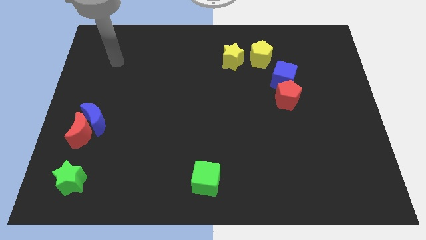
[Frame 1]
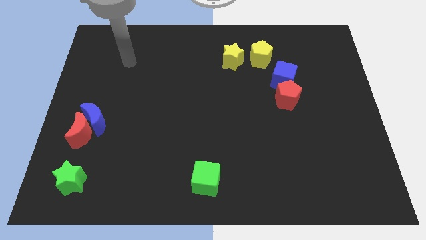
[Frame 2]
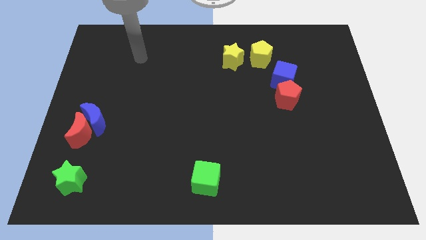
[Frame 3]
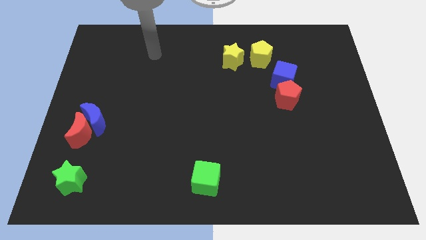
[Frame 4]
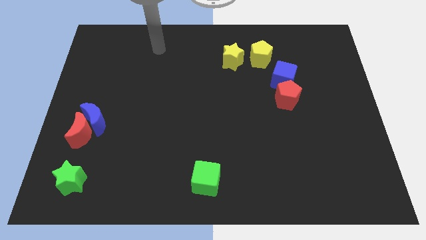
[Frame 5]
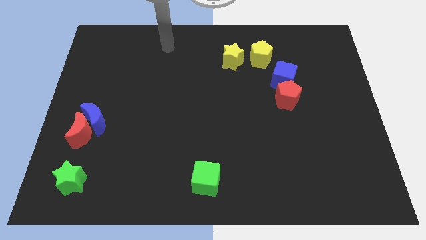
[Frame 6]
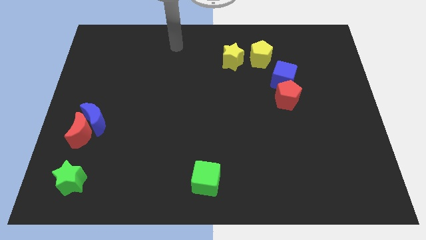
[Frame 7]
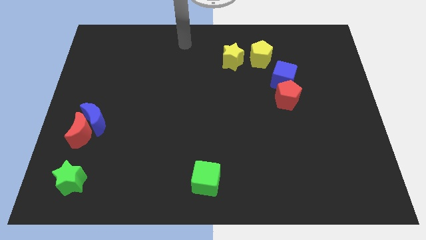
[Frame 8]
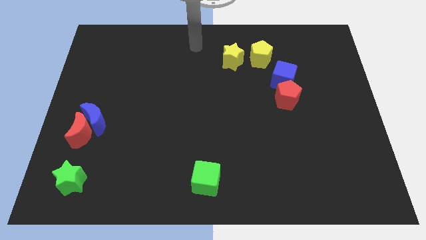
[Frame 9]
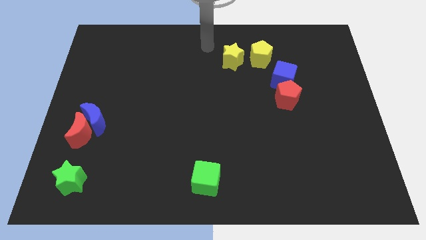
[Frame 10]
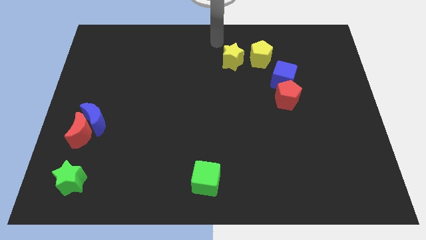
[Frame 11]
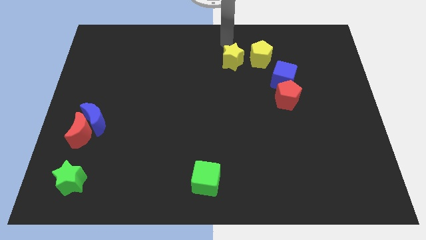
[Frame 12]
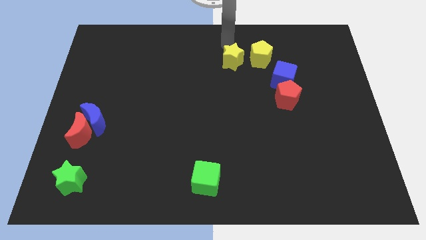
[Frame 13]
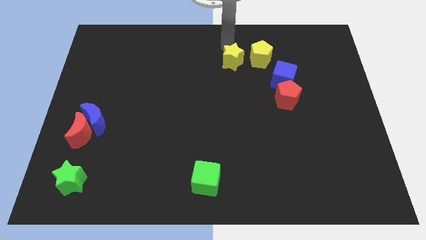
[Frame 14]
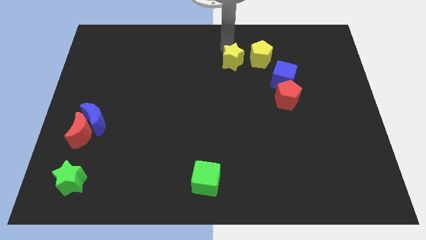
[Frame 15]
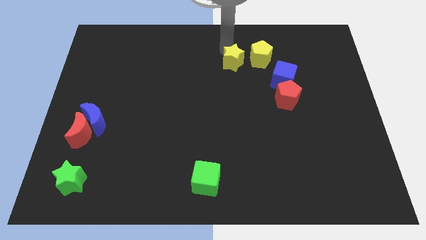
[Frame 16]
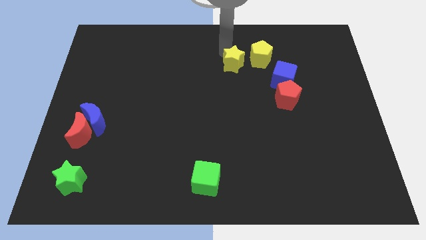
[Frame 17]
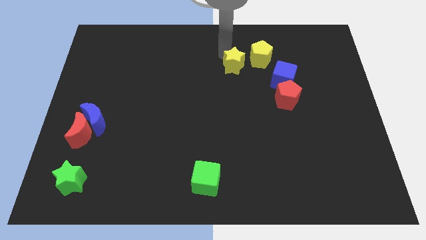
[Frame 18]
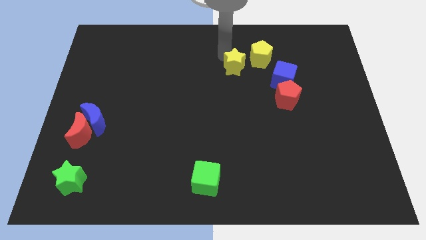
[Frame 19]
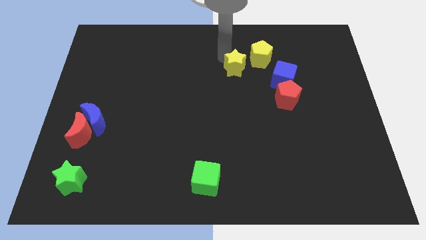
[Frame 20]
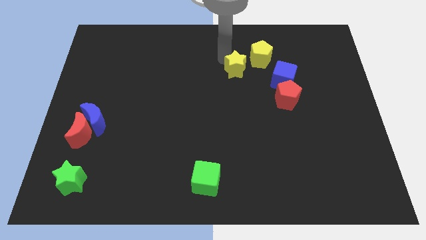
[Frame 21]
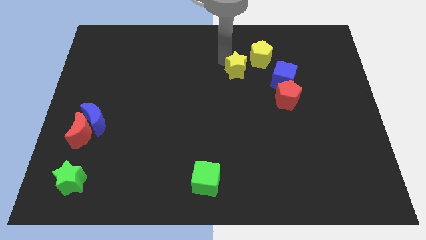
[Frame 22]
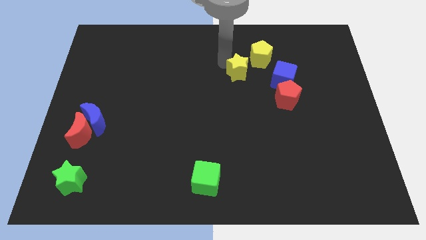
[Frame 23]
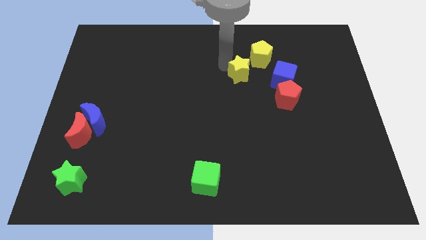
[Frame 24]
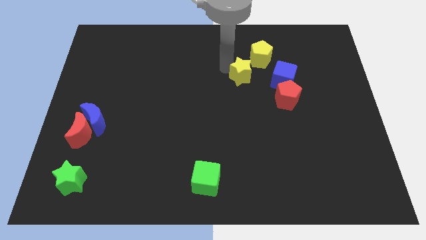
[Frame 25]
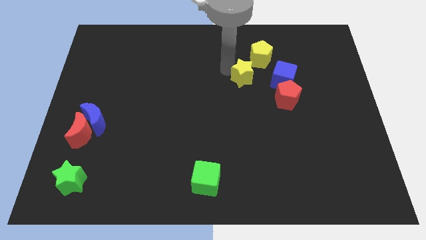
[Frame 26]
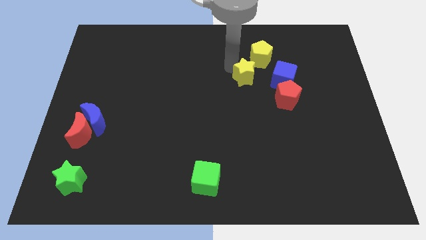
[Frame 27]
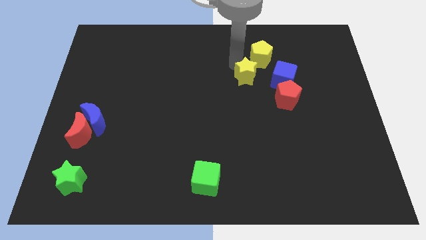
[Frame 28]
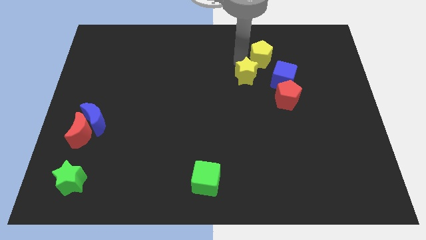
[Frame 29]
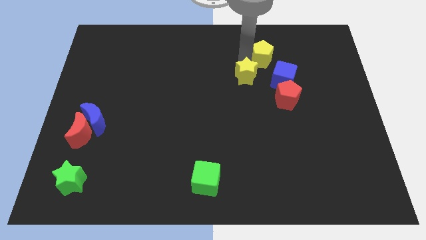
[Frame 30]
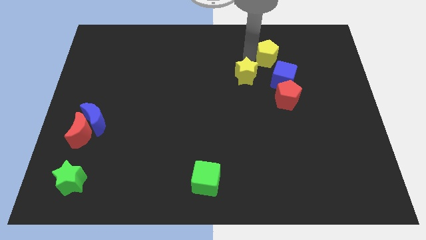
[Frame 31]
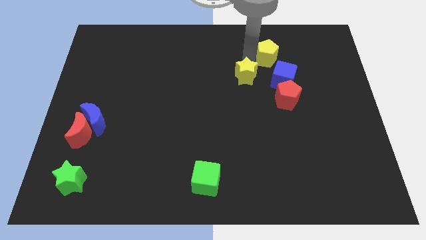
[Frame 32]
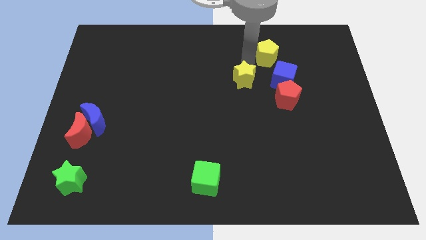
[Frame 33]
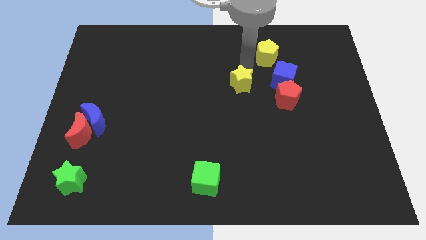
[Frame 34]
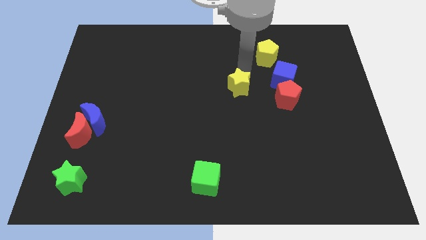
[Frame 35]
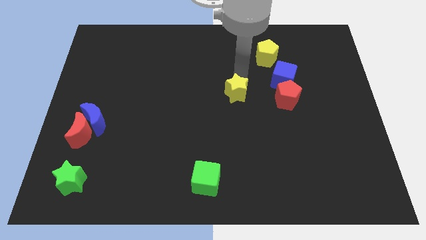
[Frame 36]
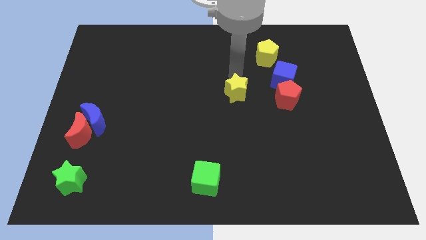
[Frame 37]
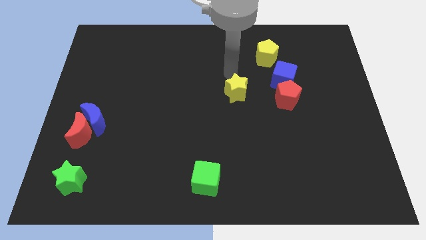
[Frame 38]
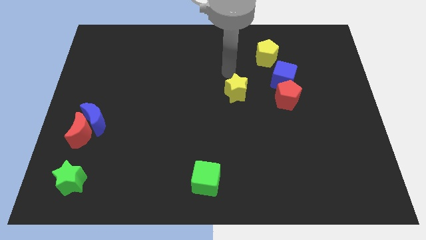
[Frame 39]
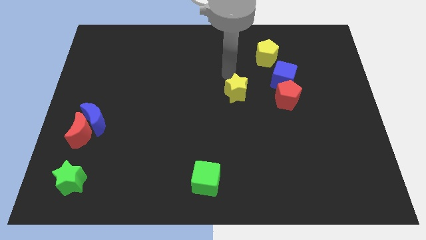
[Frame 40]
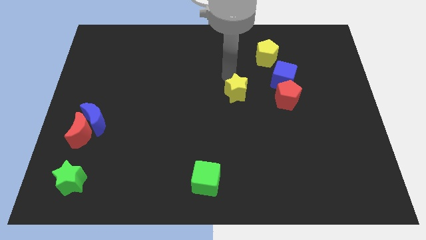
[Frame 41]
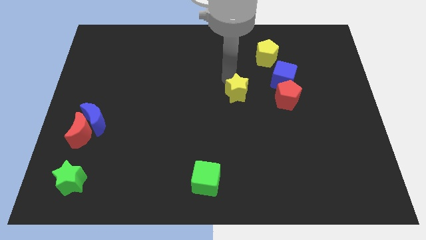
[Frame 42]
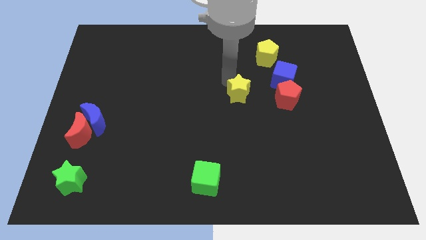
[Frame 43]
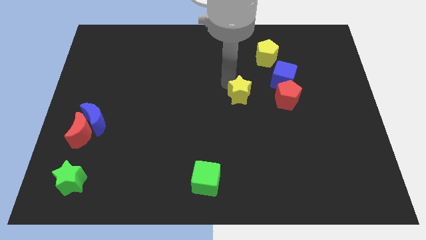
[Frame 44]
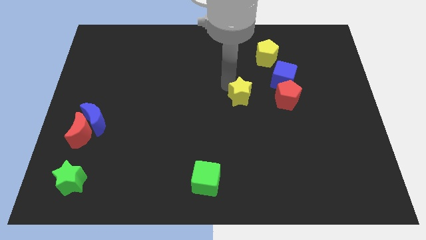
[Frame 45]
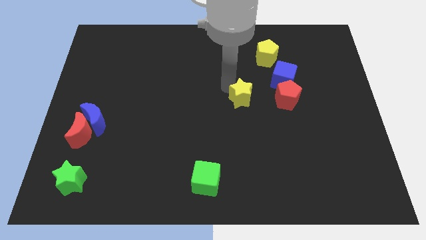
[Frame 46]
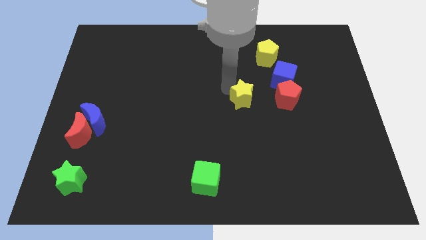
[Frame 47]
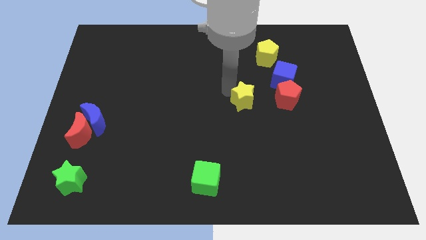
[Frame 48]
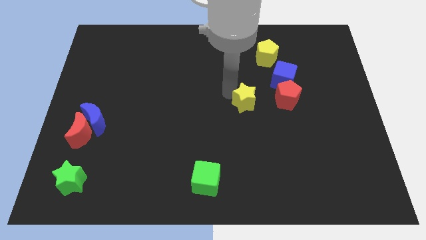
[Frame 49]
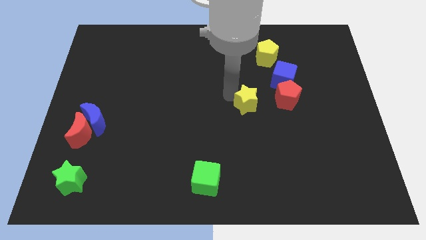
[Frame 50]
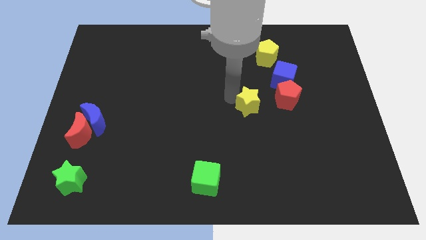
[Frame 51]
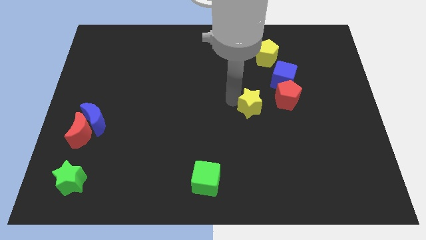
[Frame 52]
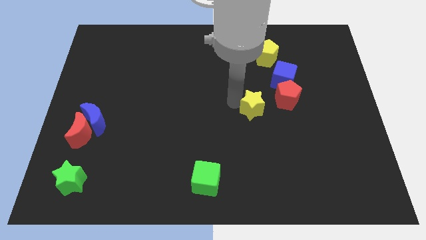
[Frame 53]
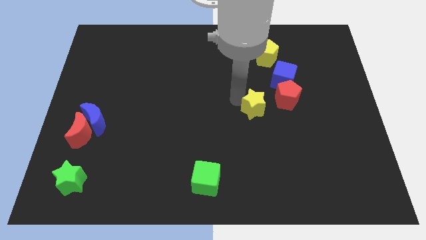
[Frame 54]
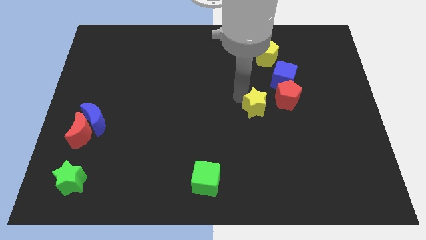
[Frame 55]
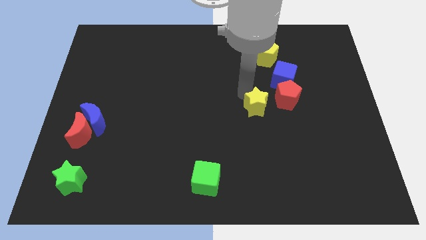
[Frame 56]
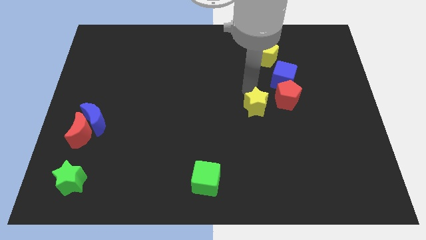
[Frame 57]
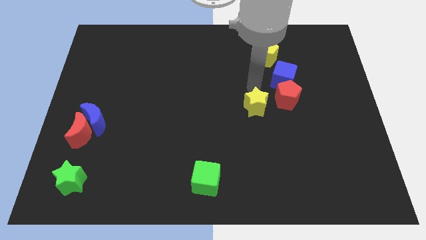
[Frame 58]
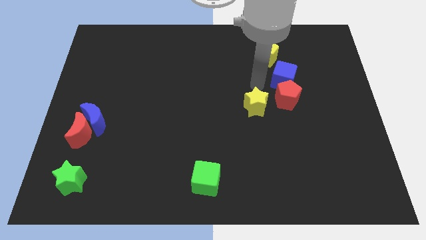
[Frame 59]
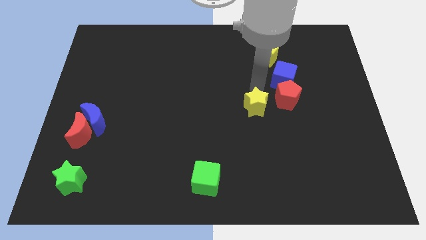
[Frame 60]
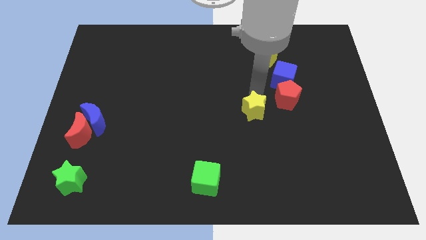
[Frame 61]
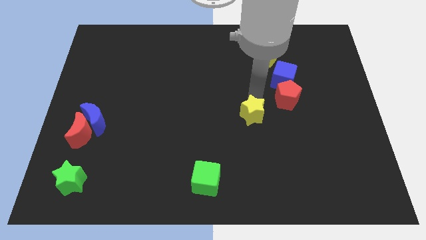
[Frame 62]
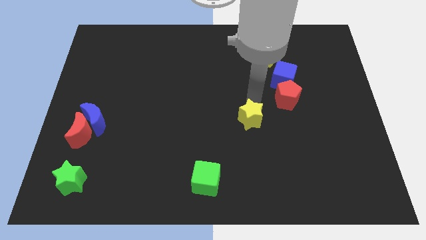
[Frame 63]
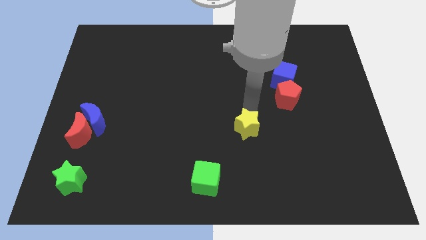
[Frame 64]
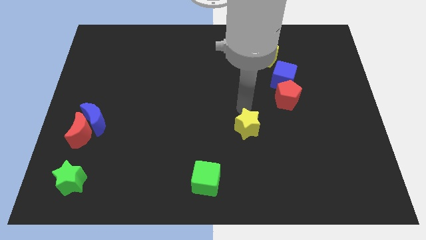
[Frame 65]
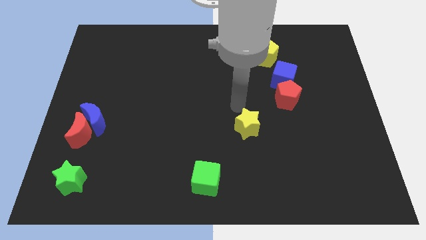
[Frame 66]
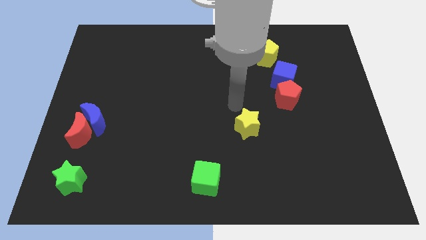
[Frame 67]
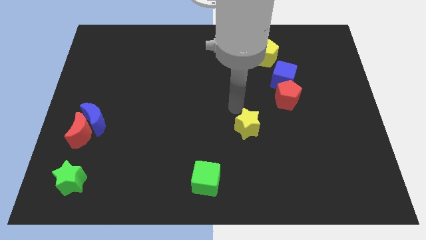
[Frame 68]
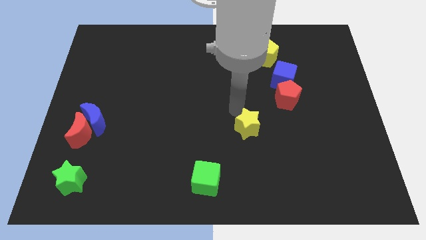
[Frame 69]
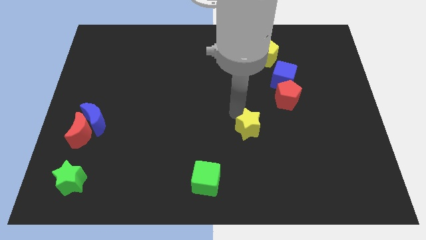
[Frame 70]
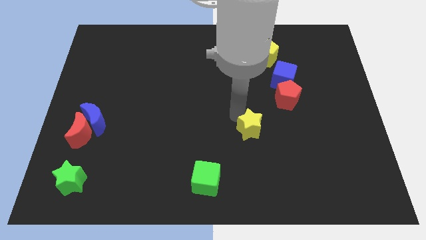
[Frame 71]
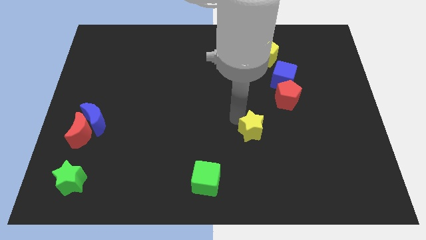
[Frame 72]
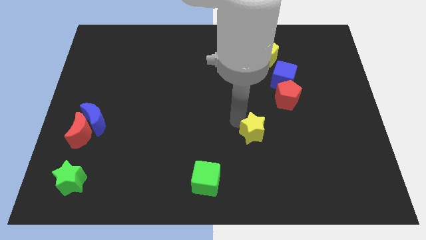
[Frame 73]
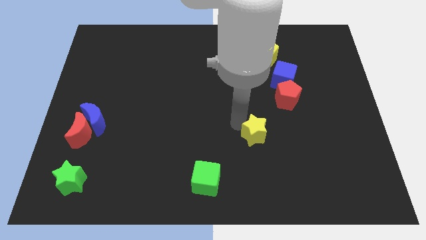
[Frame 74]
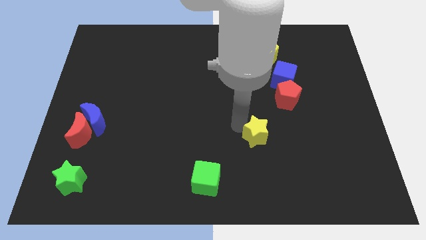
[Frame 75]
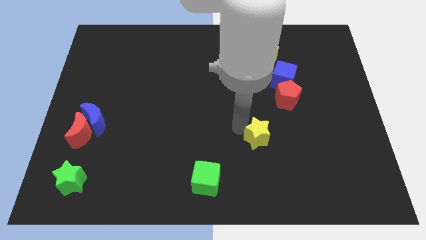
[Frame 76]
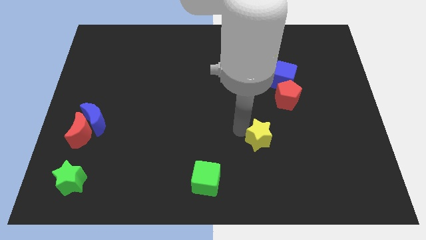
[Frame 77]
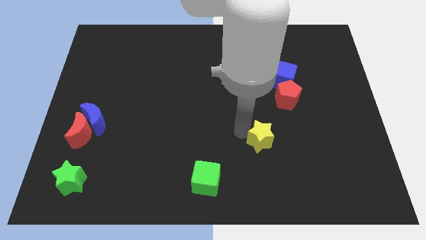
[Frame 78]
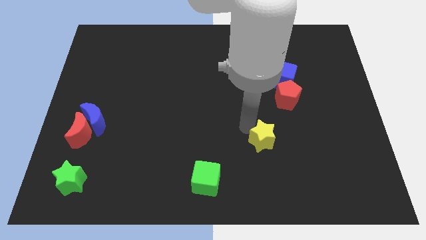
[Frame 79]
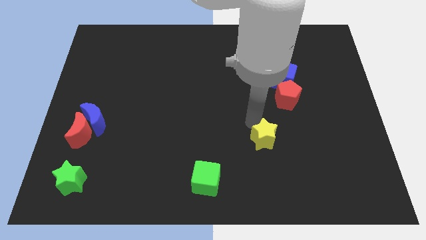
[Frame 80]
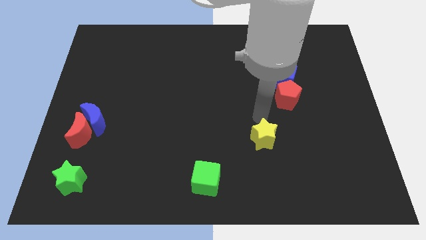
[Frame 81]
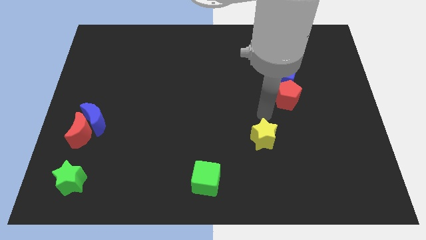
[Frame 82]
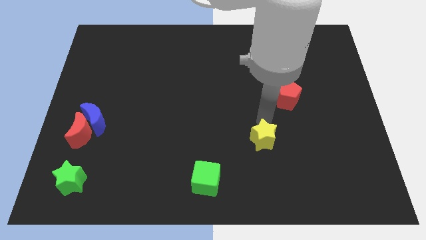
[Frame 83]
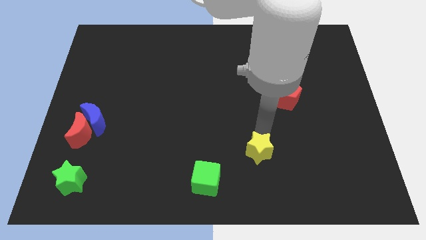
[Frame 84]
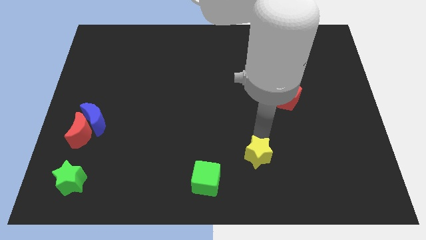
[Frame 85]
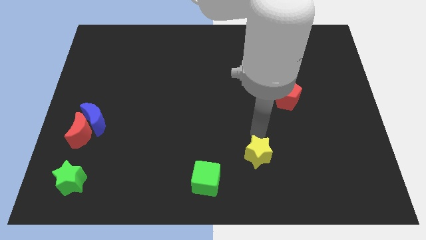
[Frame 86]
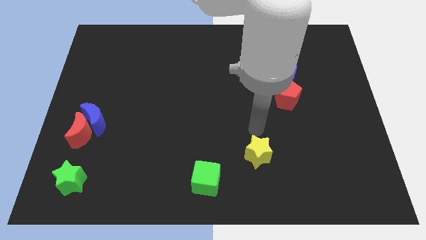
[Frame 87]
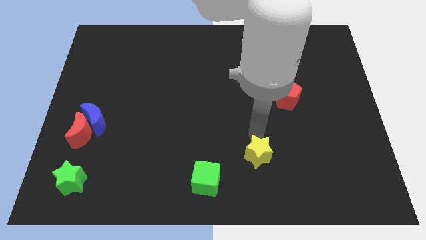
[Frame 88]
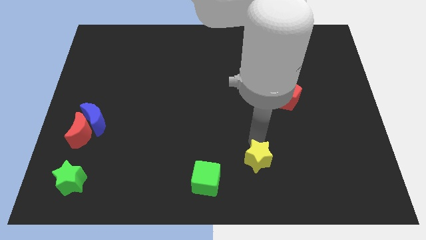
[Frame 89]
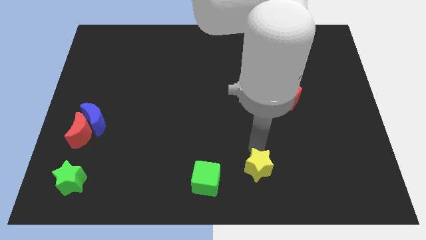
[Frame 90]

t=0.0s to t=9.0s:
put the yellow star to the right of the green cube
